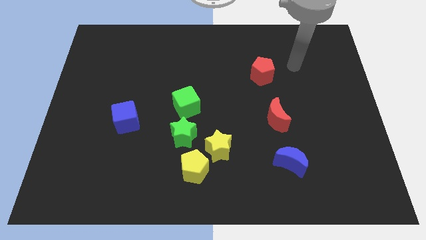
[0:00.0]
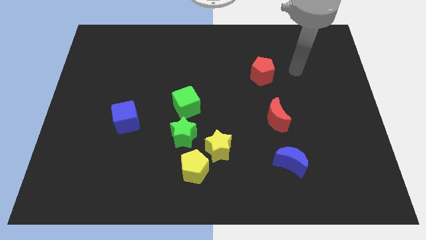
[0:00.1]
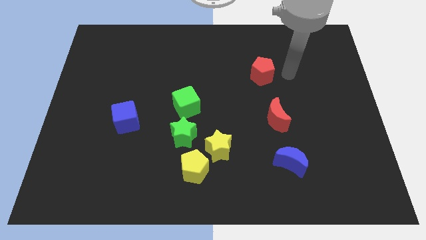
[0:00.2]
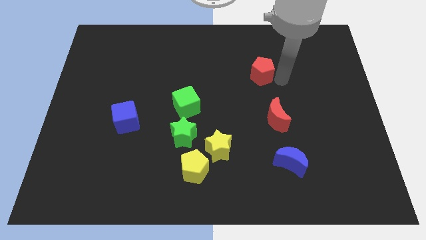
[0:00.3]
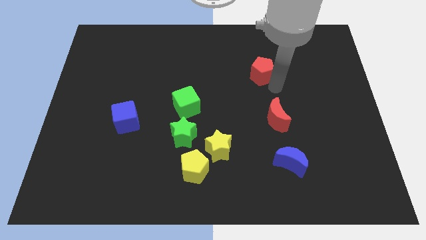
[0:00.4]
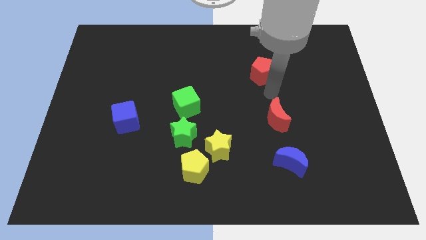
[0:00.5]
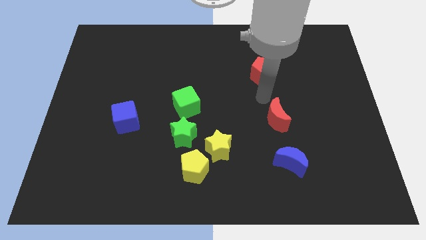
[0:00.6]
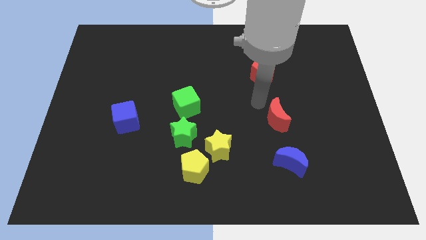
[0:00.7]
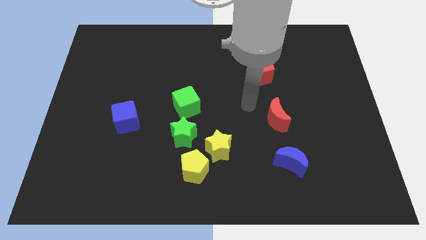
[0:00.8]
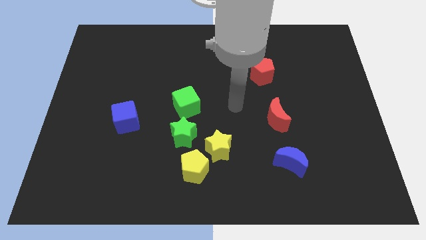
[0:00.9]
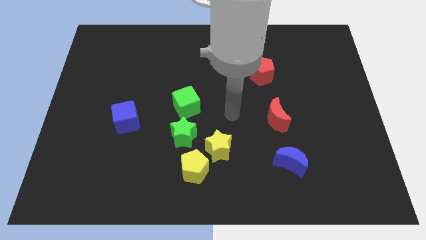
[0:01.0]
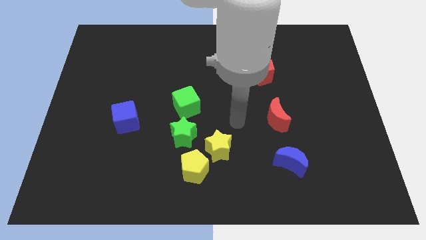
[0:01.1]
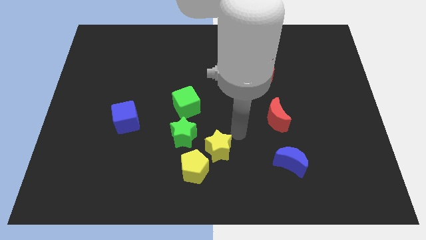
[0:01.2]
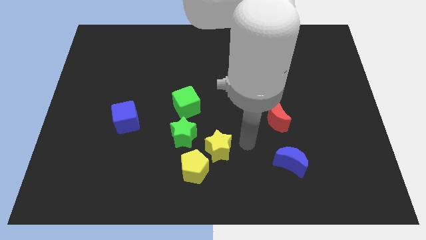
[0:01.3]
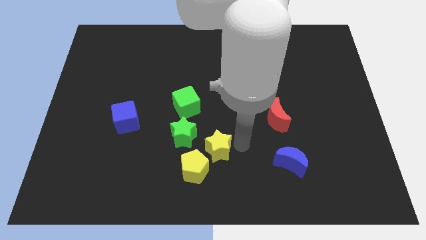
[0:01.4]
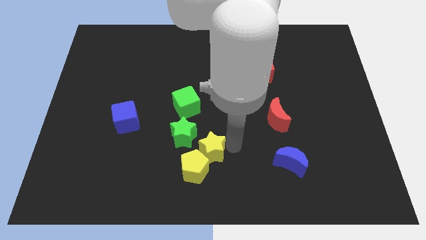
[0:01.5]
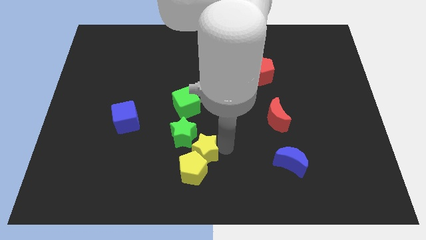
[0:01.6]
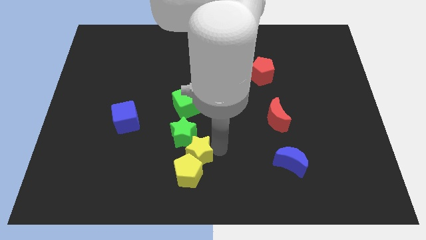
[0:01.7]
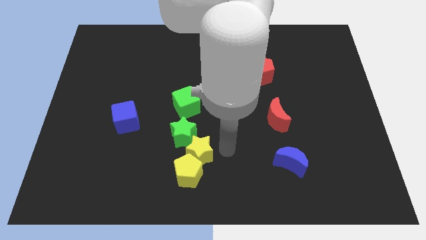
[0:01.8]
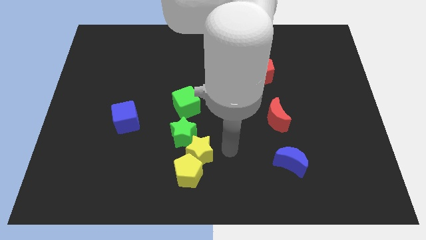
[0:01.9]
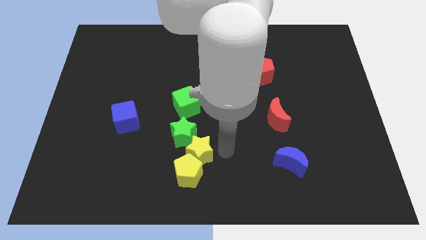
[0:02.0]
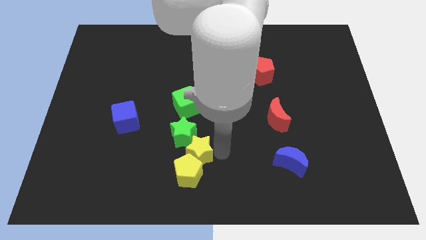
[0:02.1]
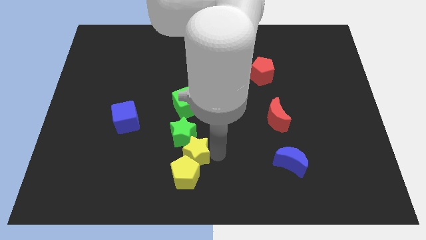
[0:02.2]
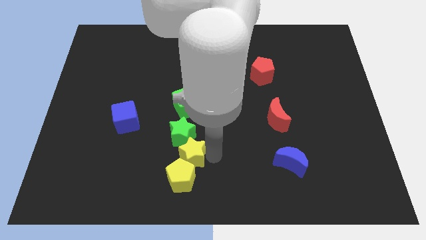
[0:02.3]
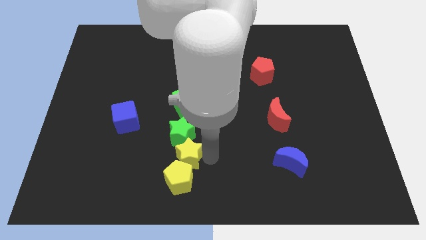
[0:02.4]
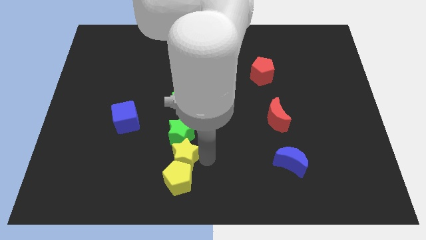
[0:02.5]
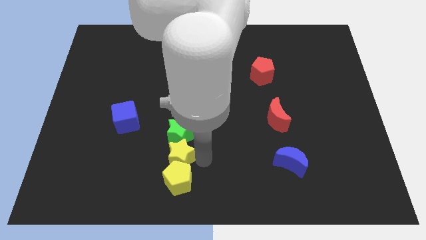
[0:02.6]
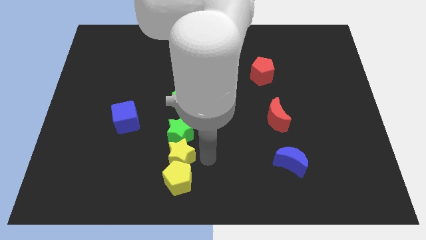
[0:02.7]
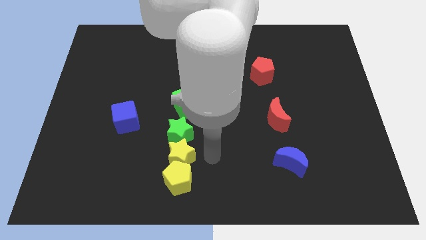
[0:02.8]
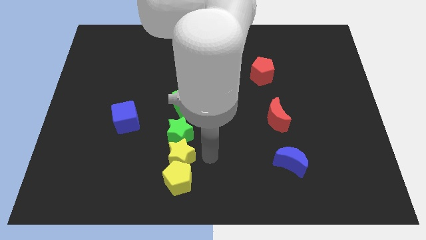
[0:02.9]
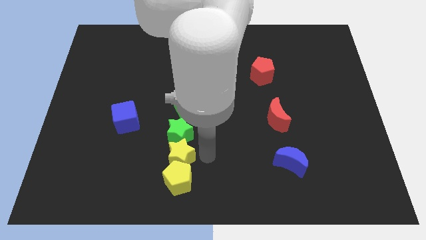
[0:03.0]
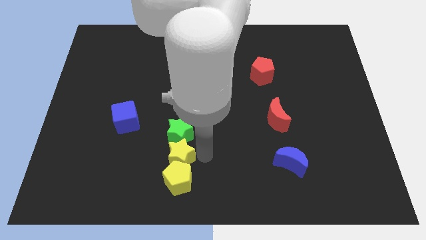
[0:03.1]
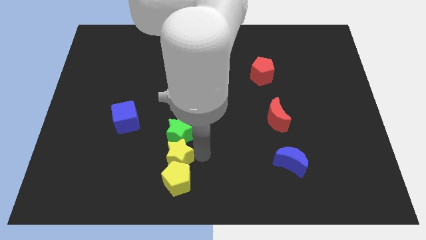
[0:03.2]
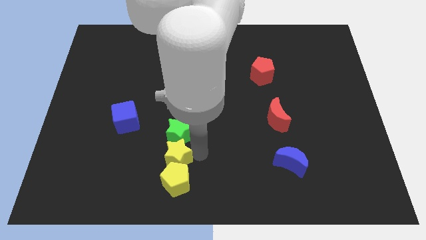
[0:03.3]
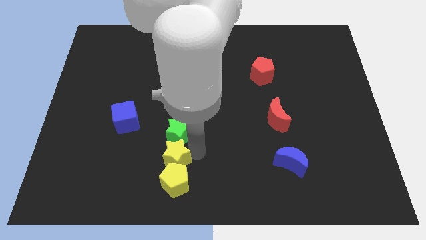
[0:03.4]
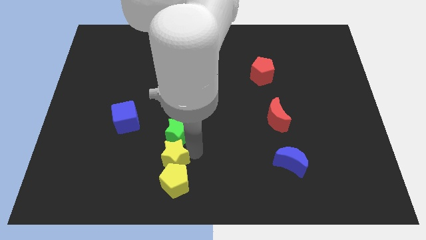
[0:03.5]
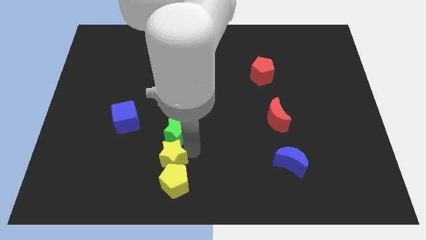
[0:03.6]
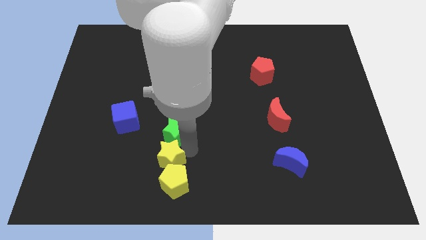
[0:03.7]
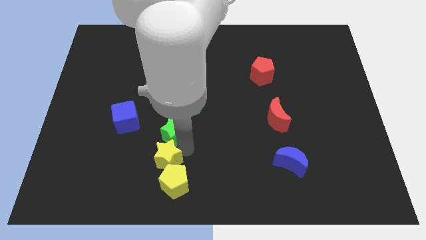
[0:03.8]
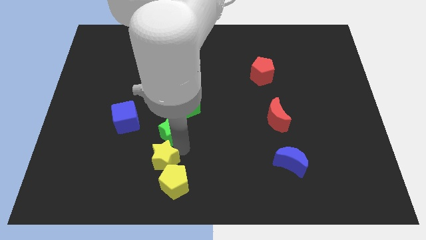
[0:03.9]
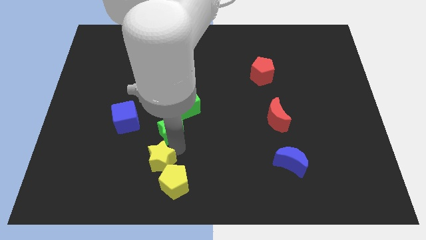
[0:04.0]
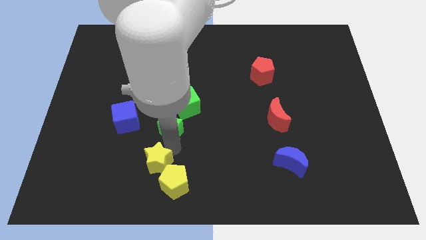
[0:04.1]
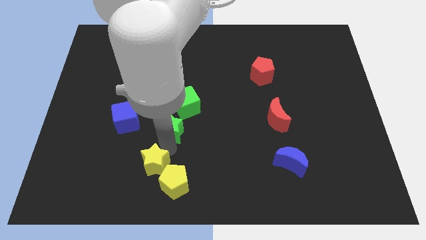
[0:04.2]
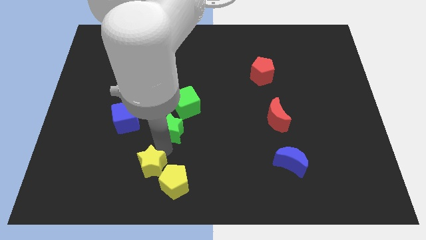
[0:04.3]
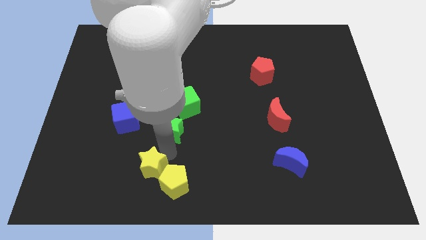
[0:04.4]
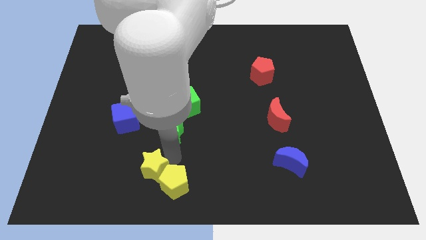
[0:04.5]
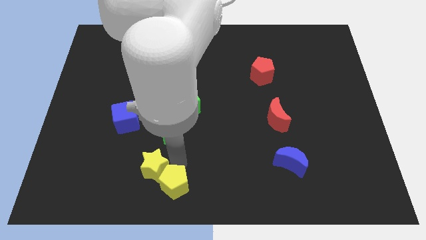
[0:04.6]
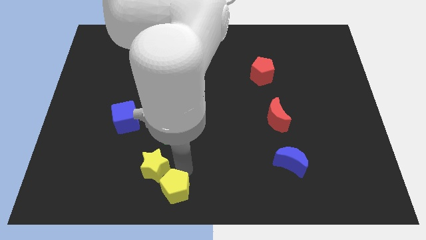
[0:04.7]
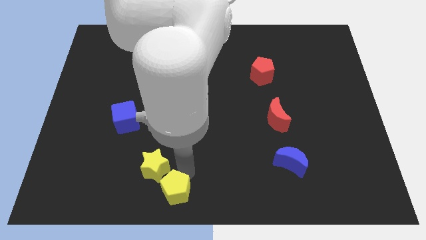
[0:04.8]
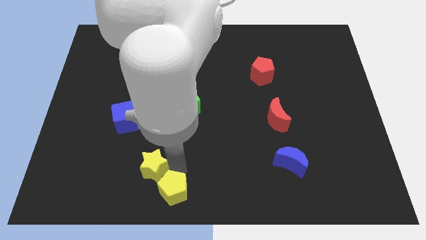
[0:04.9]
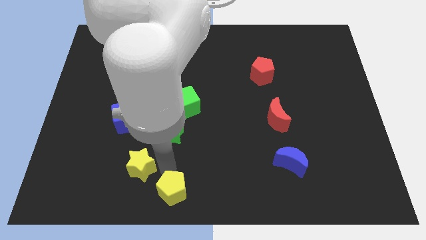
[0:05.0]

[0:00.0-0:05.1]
put the yellow star to the bottom of the blue cube

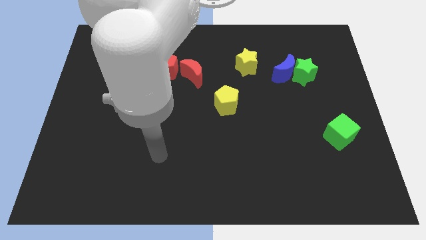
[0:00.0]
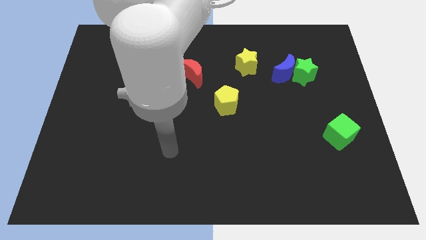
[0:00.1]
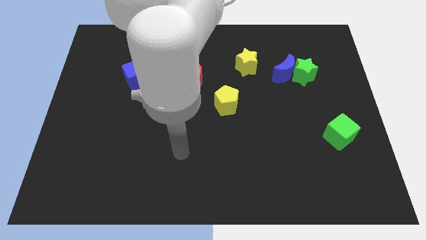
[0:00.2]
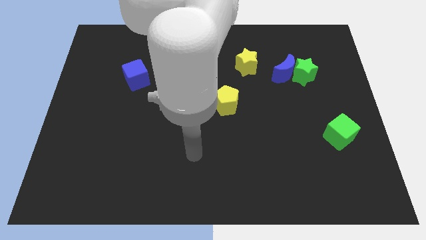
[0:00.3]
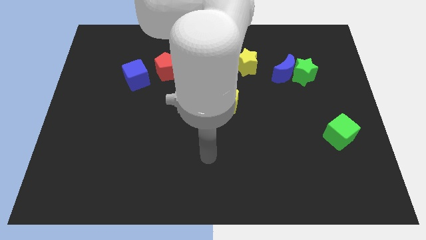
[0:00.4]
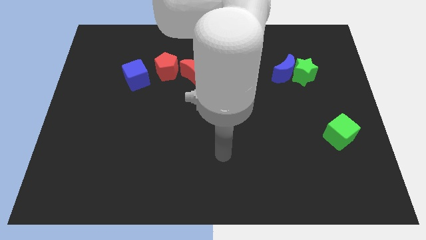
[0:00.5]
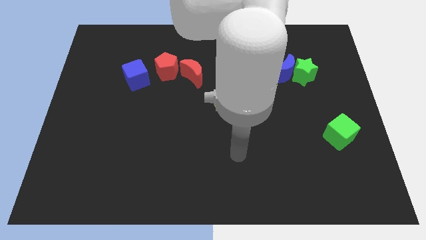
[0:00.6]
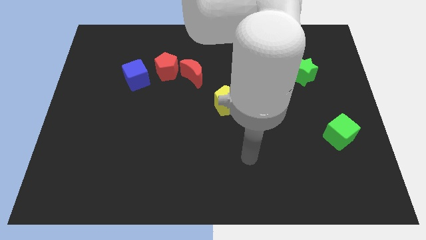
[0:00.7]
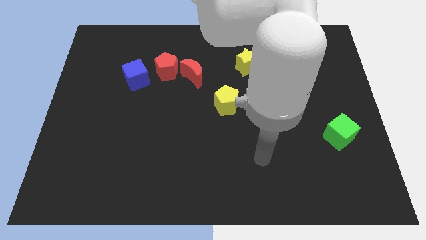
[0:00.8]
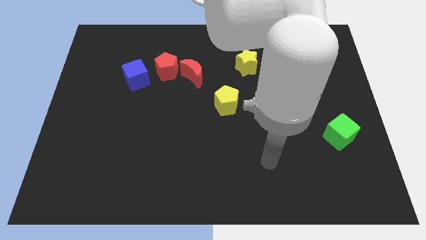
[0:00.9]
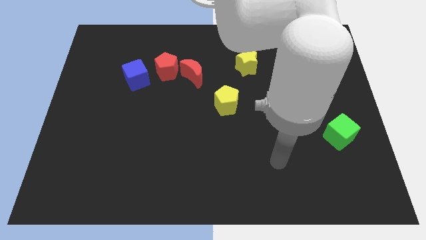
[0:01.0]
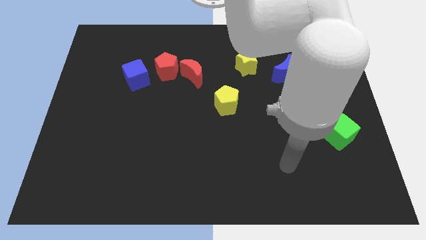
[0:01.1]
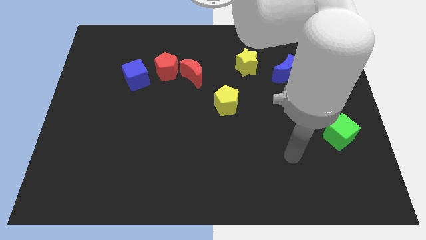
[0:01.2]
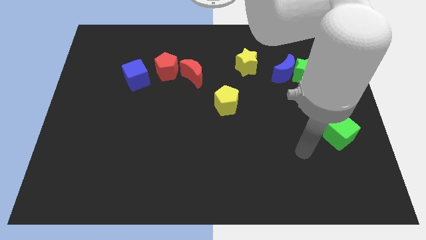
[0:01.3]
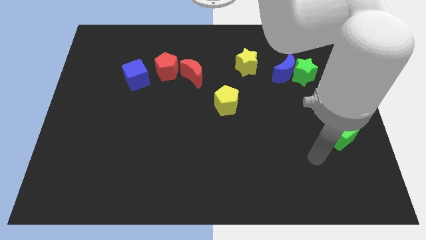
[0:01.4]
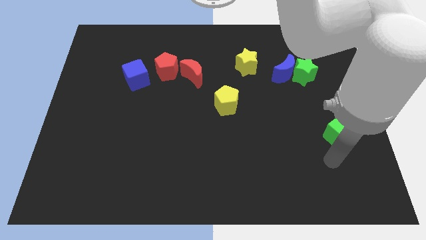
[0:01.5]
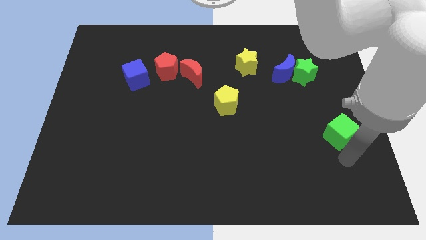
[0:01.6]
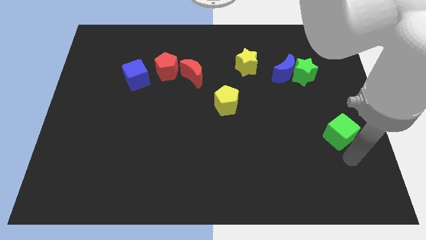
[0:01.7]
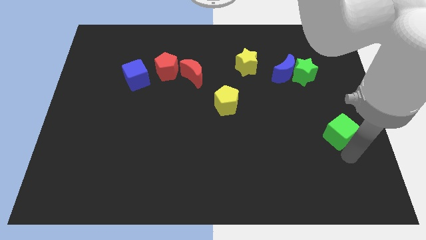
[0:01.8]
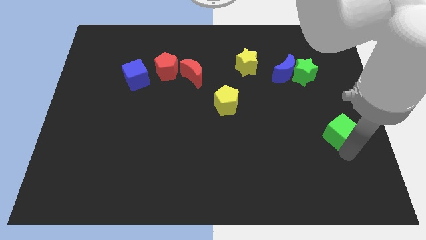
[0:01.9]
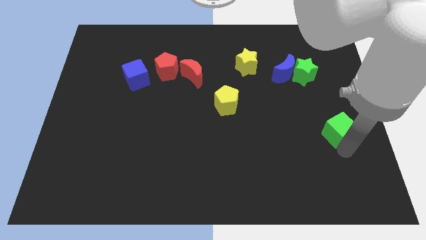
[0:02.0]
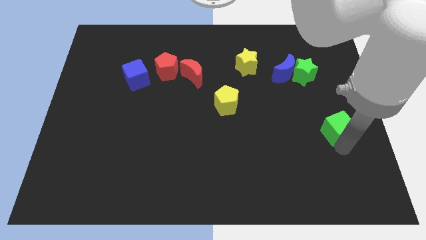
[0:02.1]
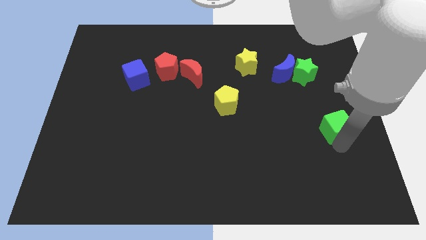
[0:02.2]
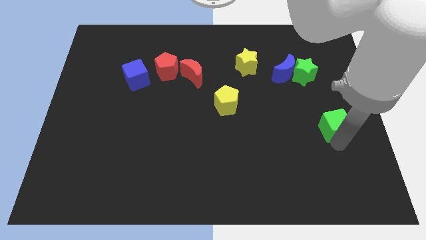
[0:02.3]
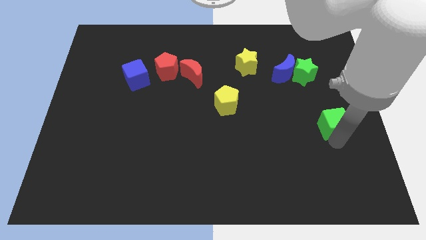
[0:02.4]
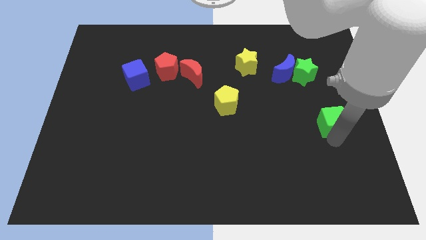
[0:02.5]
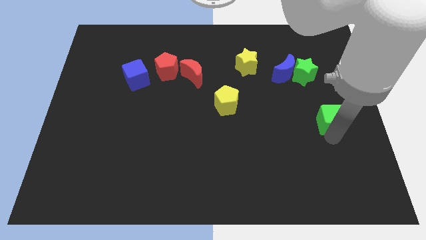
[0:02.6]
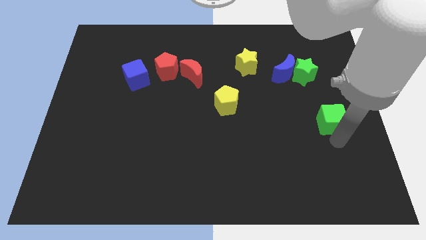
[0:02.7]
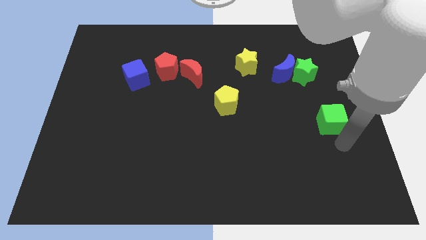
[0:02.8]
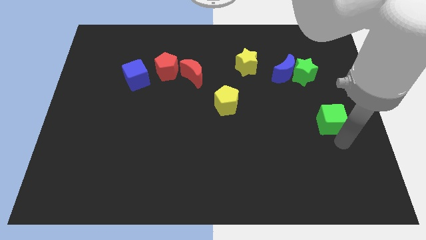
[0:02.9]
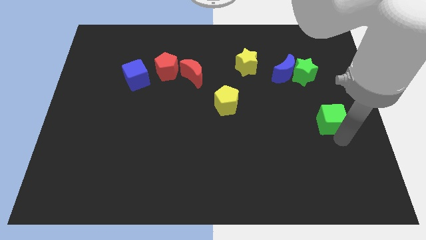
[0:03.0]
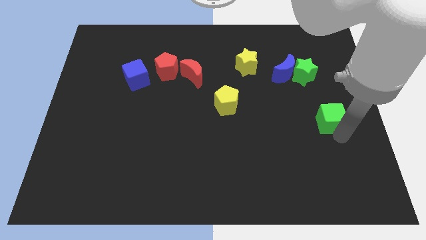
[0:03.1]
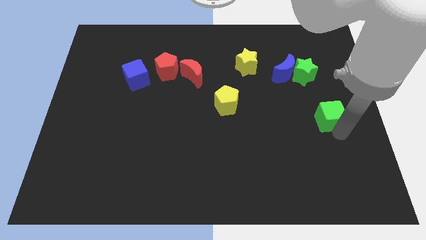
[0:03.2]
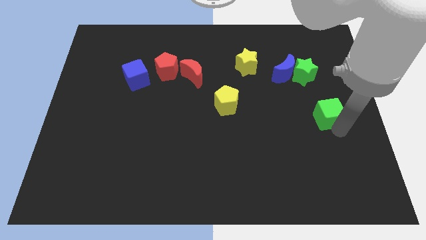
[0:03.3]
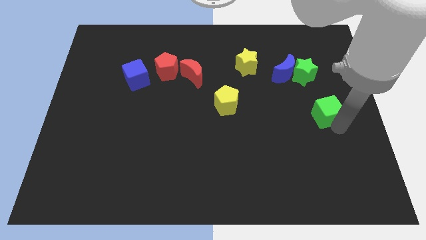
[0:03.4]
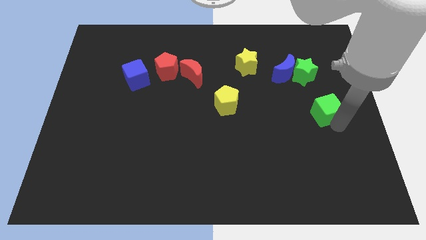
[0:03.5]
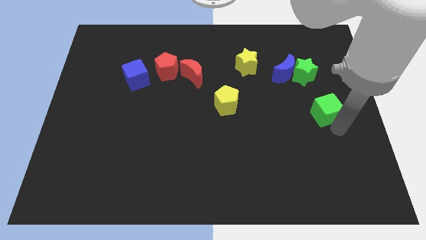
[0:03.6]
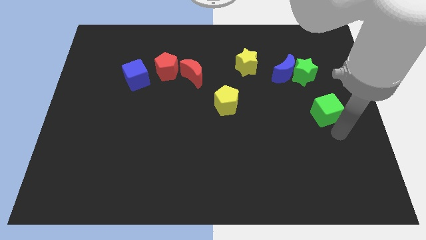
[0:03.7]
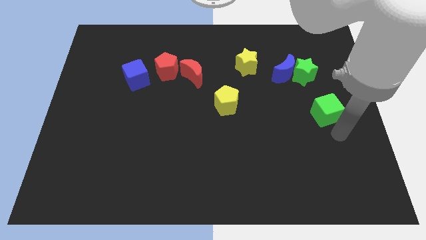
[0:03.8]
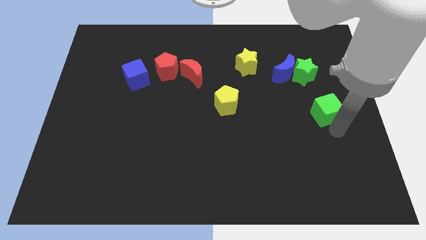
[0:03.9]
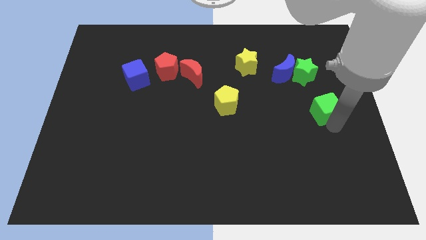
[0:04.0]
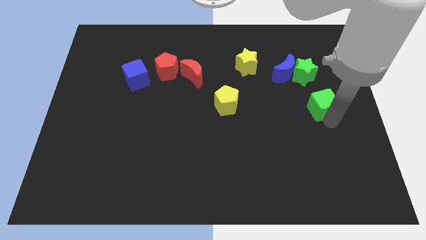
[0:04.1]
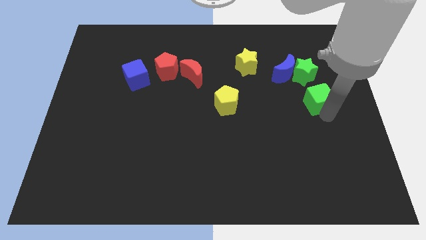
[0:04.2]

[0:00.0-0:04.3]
move the green cube to the bottom right of the blue moon
